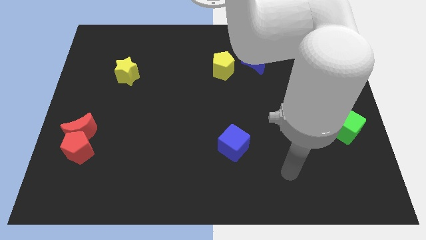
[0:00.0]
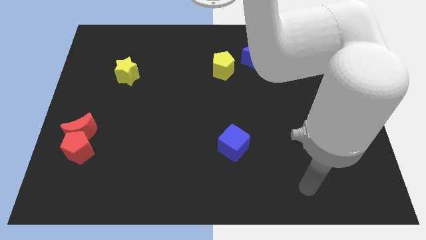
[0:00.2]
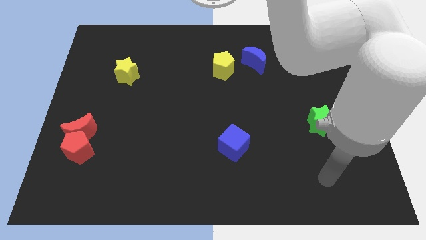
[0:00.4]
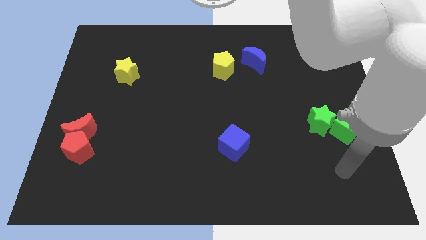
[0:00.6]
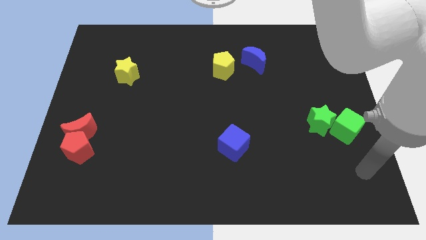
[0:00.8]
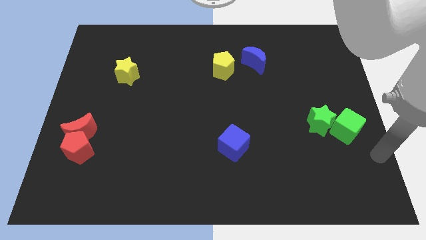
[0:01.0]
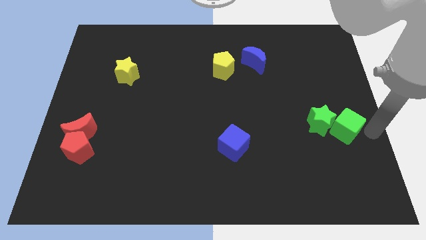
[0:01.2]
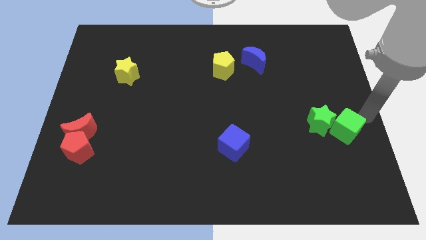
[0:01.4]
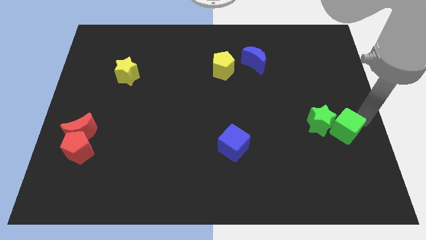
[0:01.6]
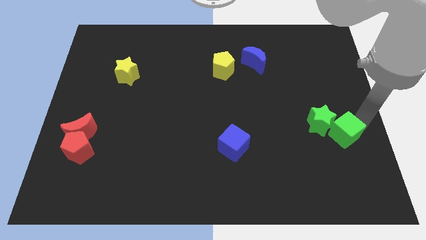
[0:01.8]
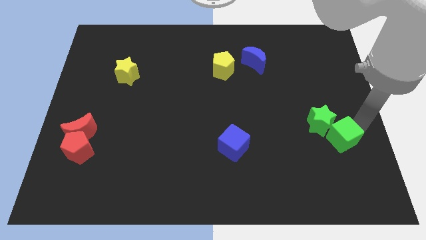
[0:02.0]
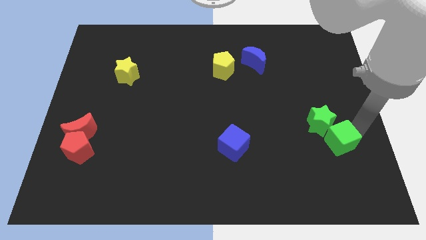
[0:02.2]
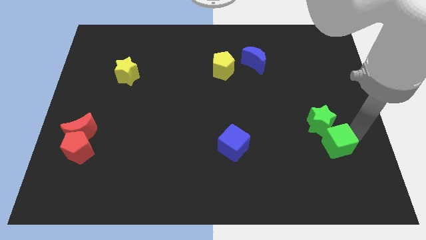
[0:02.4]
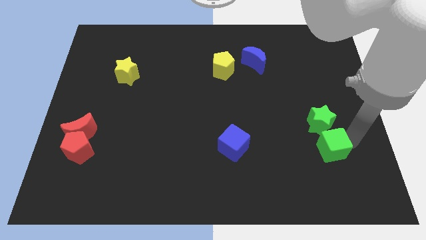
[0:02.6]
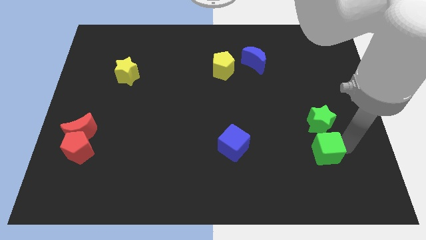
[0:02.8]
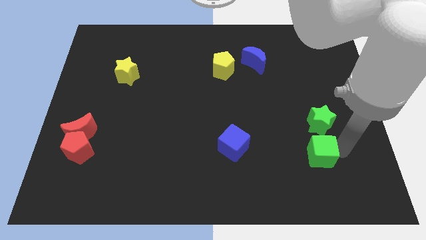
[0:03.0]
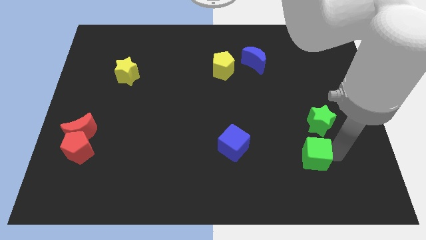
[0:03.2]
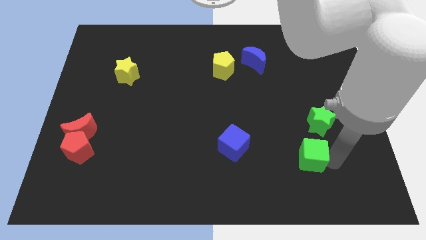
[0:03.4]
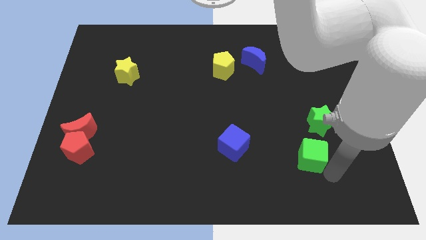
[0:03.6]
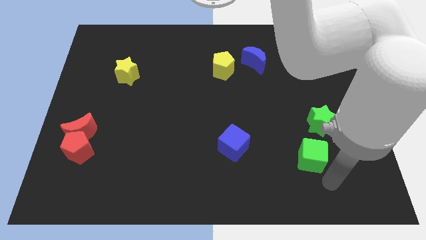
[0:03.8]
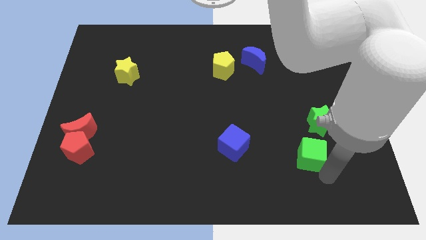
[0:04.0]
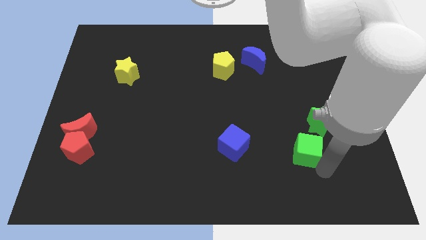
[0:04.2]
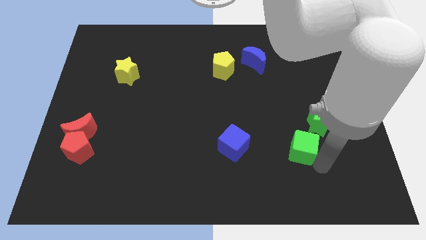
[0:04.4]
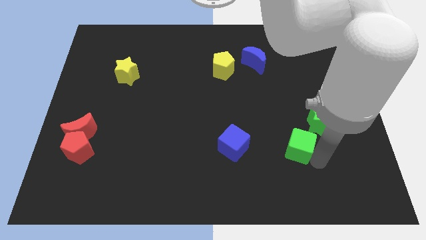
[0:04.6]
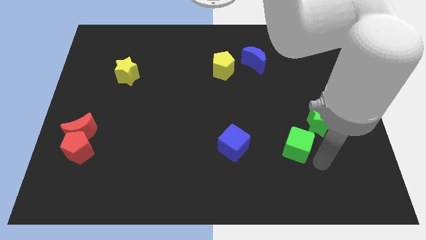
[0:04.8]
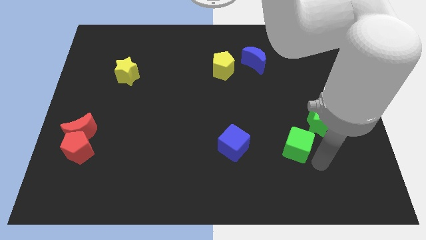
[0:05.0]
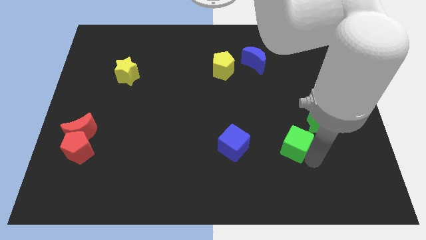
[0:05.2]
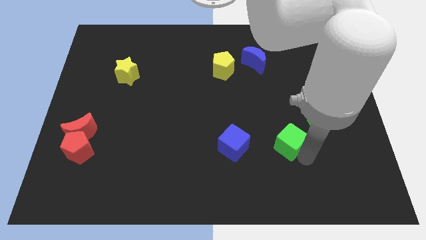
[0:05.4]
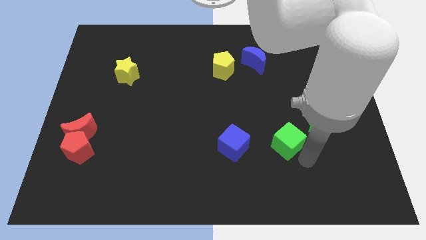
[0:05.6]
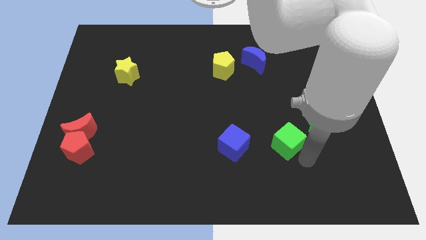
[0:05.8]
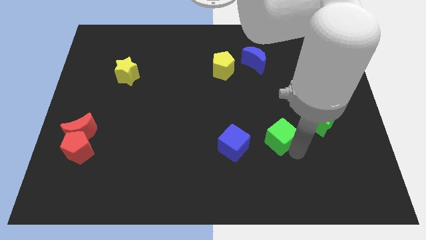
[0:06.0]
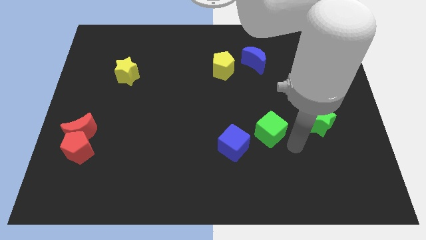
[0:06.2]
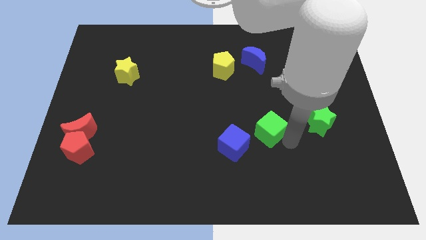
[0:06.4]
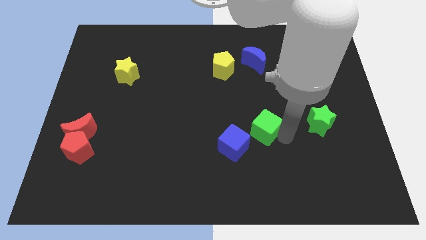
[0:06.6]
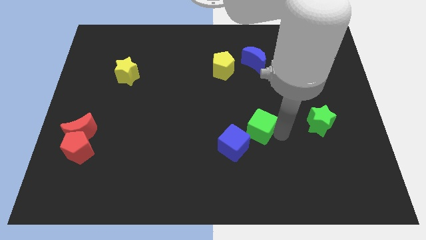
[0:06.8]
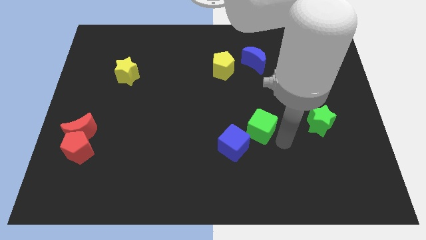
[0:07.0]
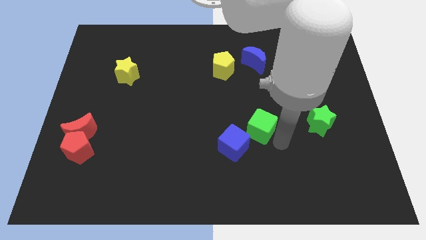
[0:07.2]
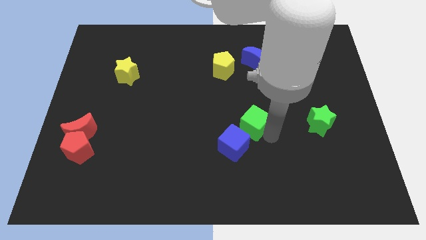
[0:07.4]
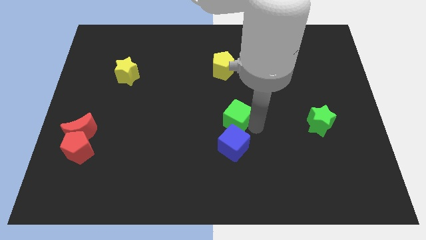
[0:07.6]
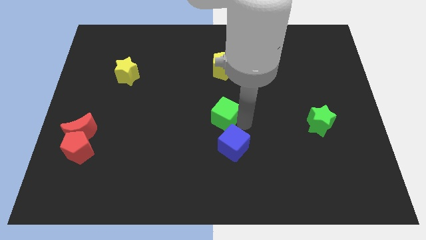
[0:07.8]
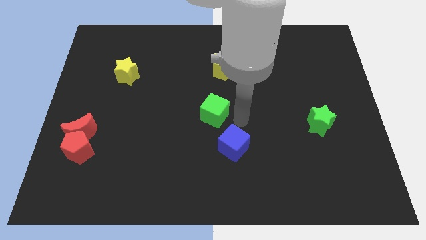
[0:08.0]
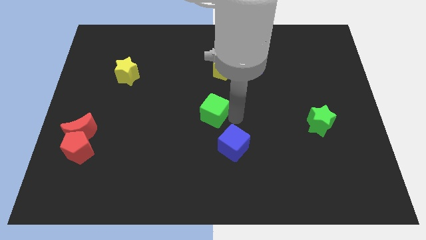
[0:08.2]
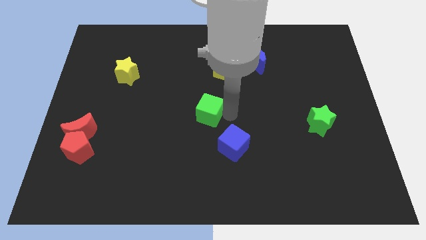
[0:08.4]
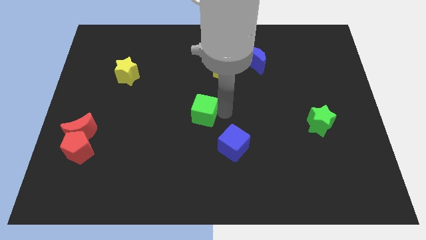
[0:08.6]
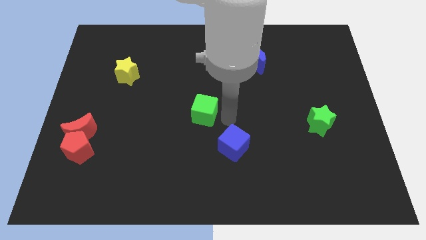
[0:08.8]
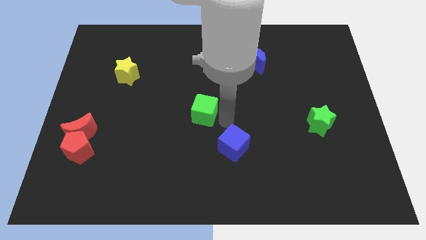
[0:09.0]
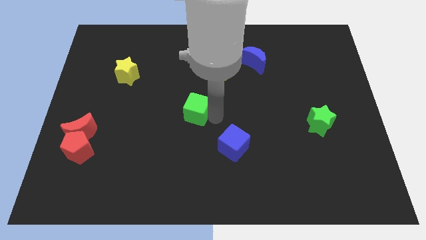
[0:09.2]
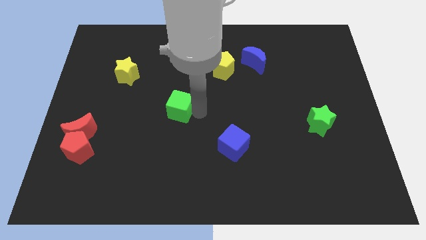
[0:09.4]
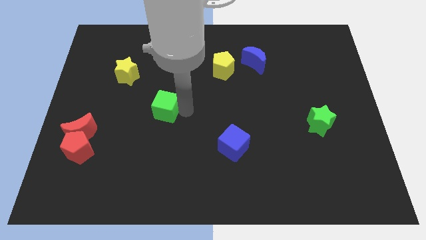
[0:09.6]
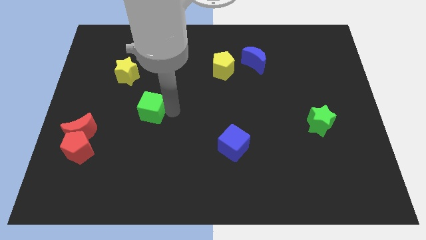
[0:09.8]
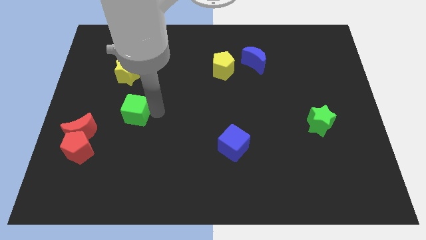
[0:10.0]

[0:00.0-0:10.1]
put the green cube below the yellow star

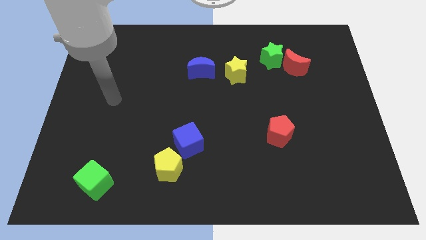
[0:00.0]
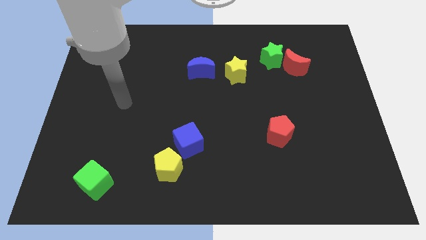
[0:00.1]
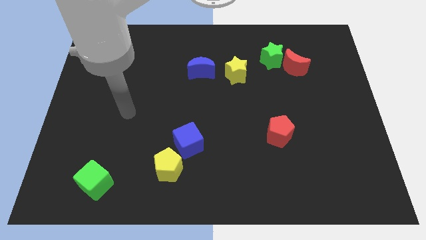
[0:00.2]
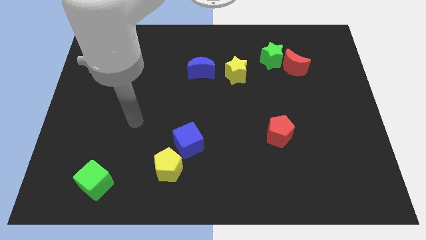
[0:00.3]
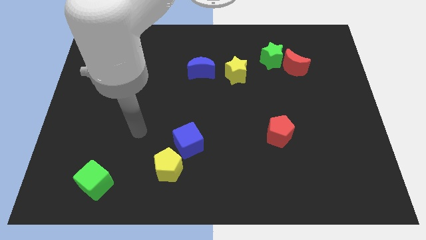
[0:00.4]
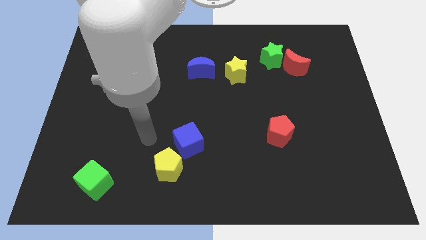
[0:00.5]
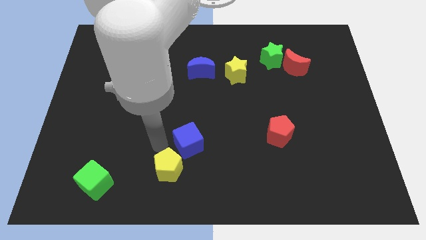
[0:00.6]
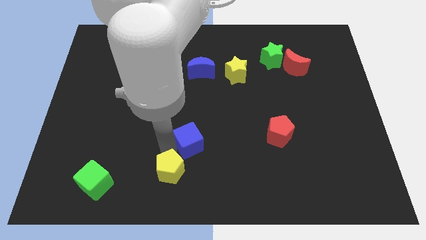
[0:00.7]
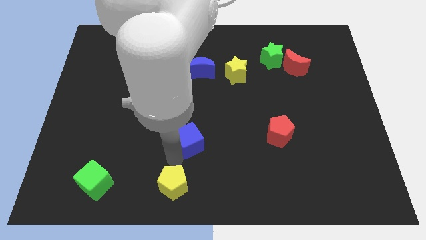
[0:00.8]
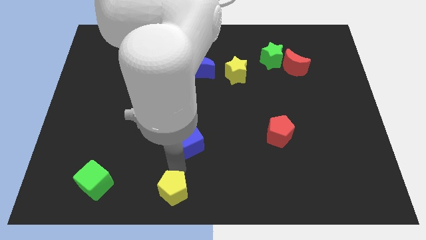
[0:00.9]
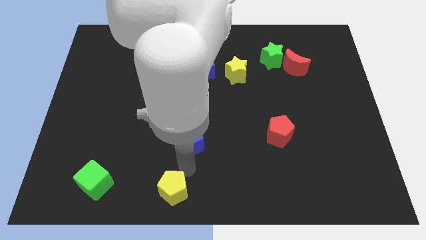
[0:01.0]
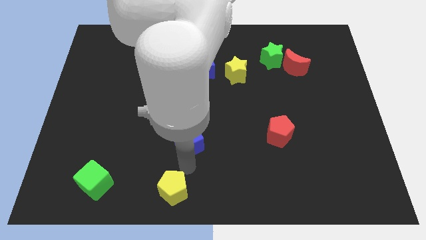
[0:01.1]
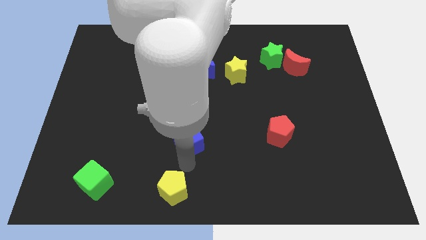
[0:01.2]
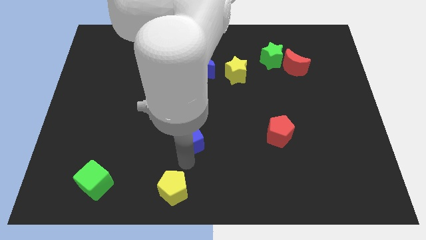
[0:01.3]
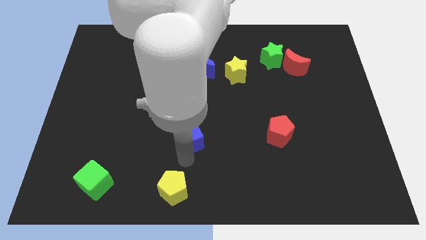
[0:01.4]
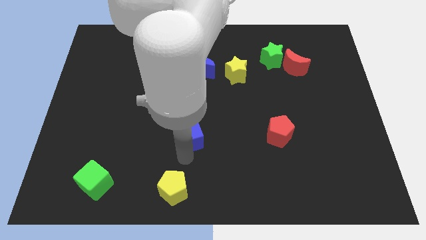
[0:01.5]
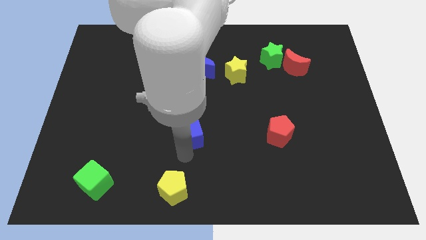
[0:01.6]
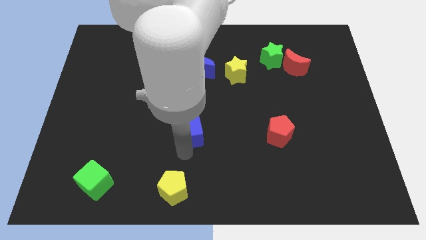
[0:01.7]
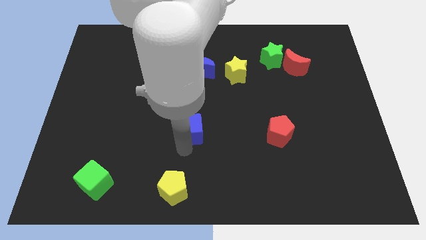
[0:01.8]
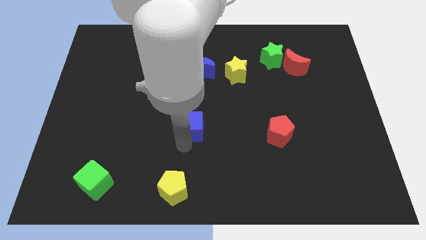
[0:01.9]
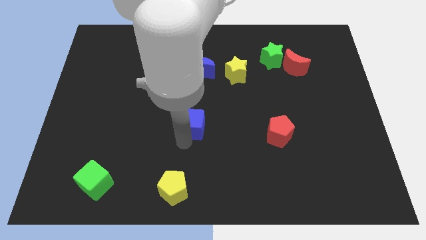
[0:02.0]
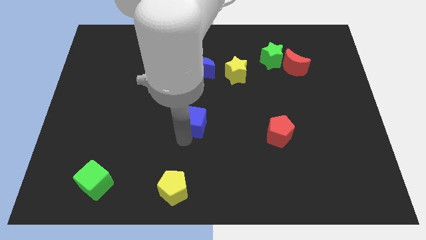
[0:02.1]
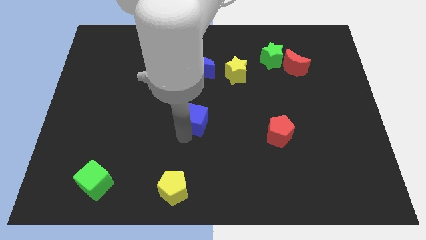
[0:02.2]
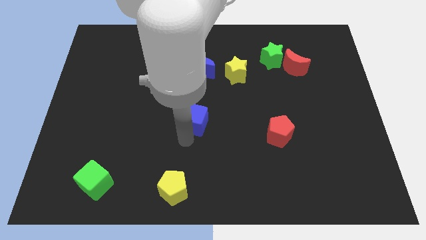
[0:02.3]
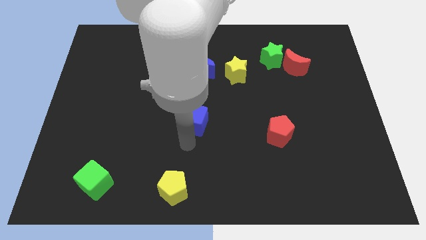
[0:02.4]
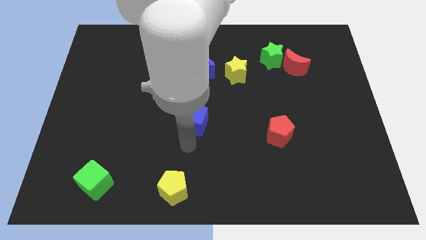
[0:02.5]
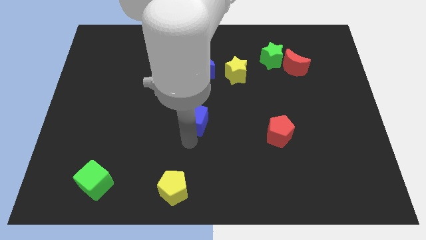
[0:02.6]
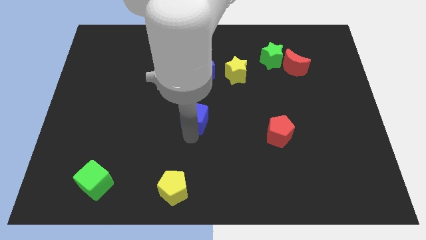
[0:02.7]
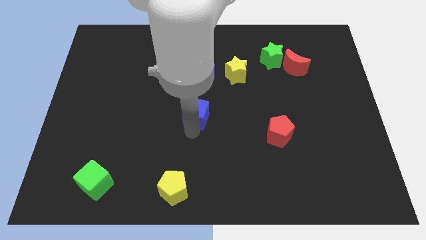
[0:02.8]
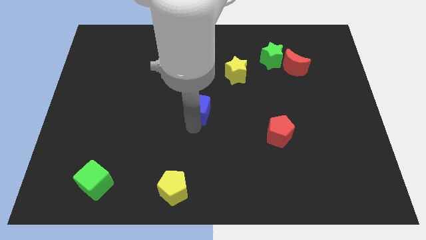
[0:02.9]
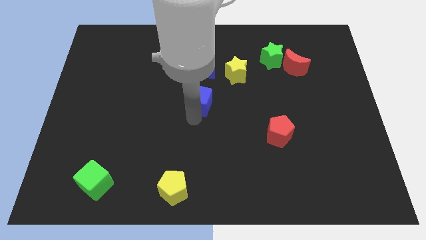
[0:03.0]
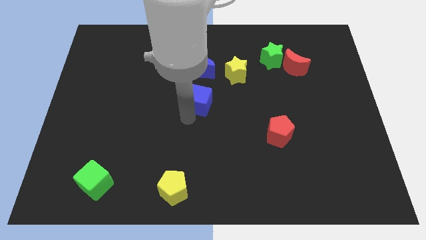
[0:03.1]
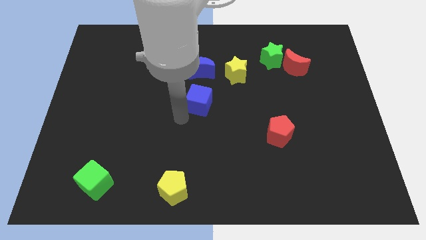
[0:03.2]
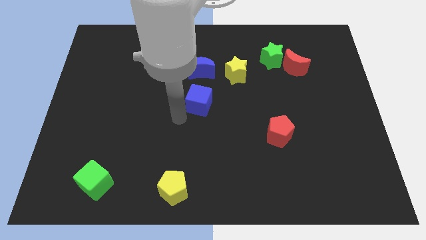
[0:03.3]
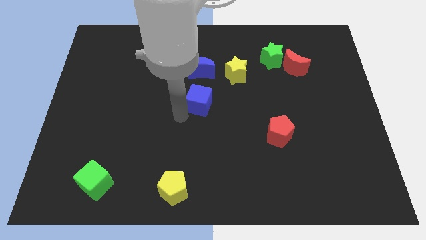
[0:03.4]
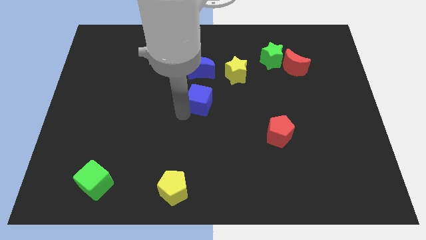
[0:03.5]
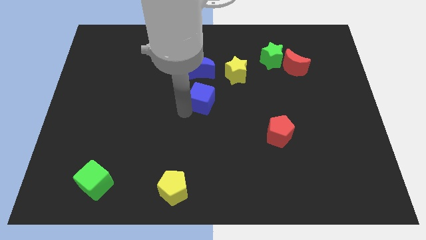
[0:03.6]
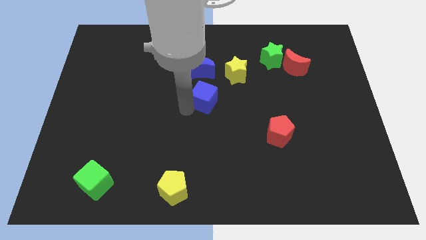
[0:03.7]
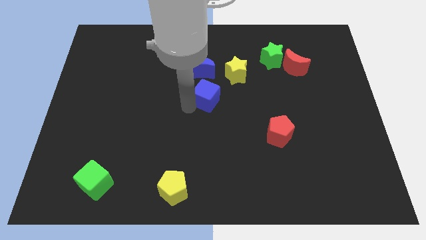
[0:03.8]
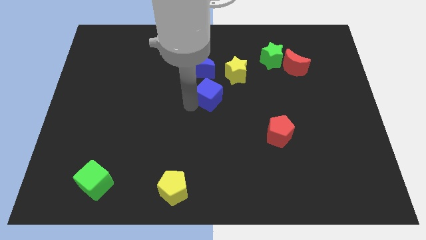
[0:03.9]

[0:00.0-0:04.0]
push the blue cube to the bottom right side of the blue moon
